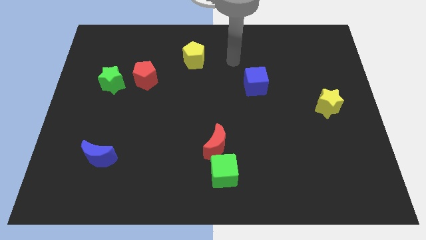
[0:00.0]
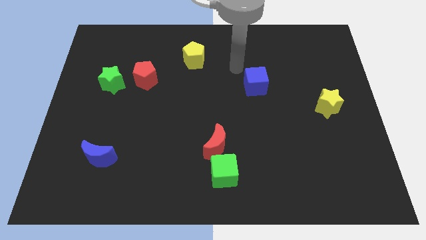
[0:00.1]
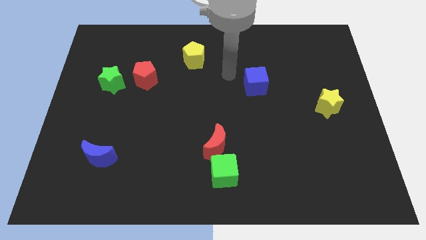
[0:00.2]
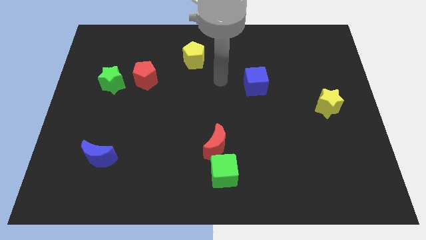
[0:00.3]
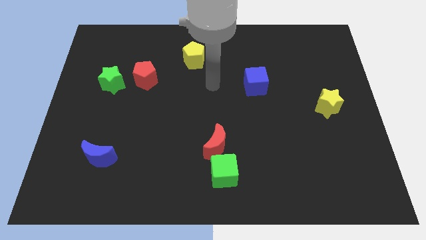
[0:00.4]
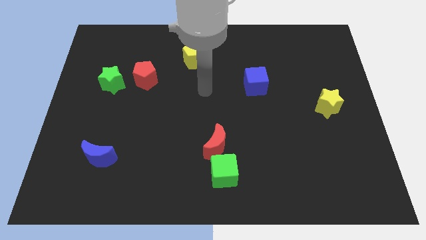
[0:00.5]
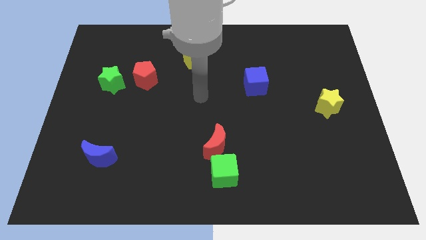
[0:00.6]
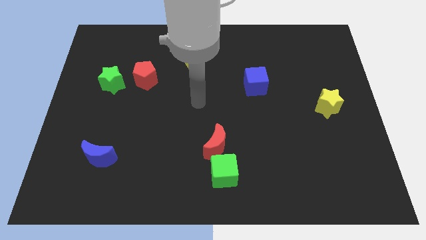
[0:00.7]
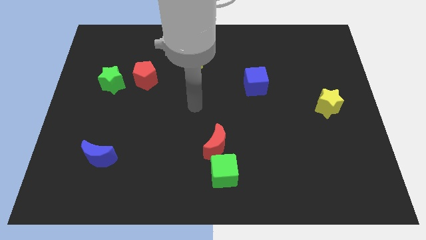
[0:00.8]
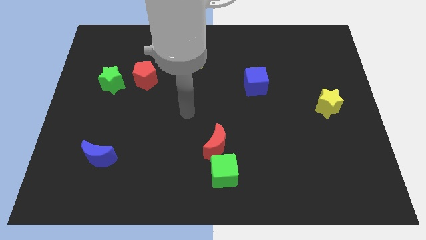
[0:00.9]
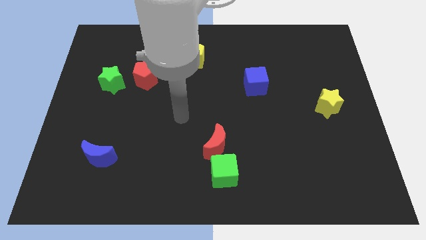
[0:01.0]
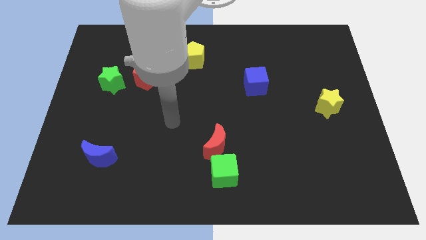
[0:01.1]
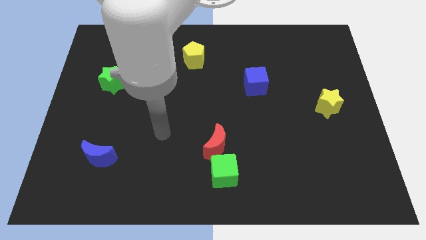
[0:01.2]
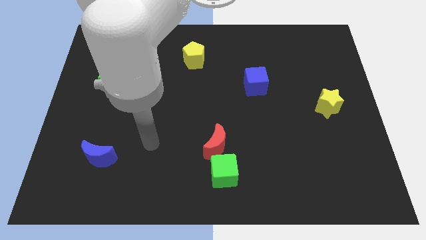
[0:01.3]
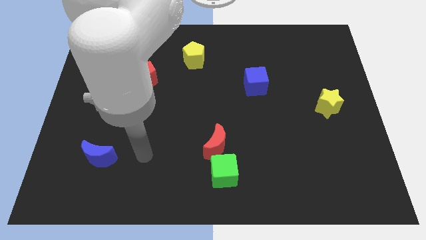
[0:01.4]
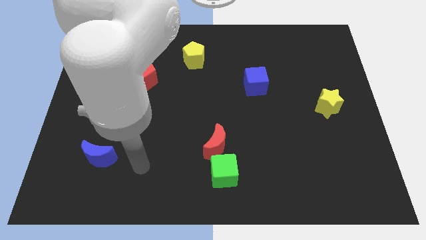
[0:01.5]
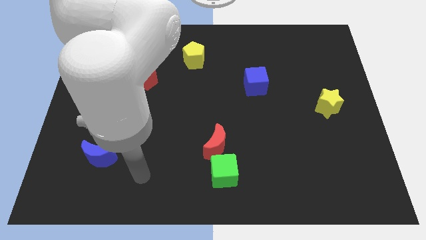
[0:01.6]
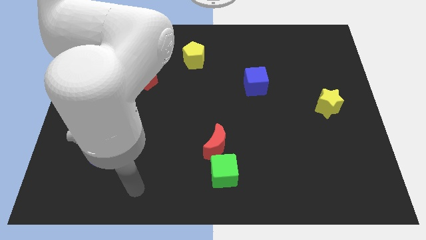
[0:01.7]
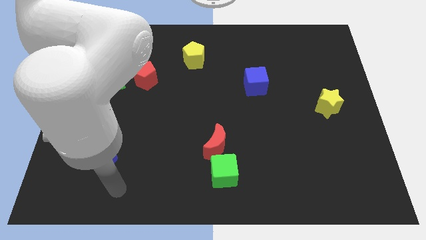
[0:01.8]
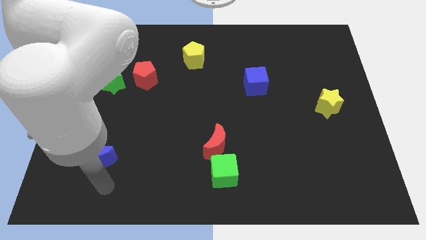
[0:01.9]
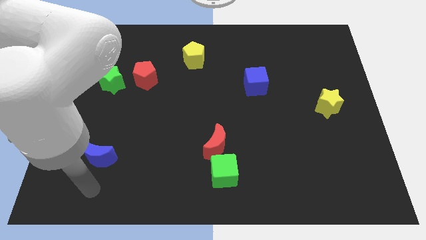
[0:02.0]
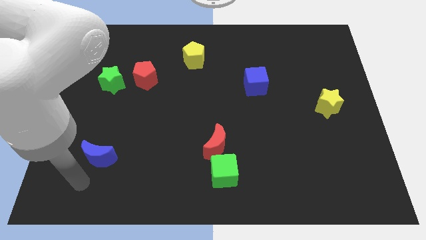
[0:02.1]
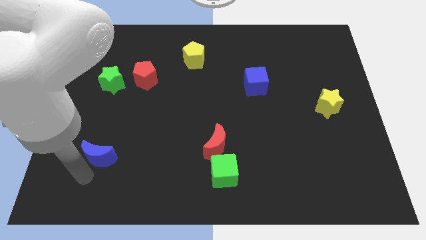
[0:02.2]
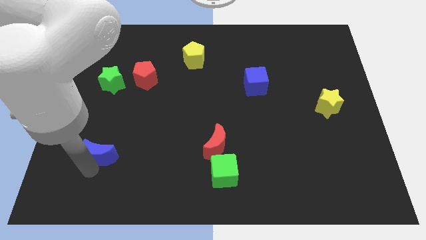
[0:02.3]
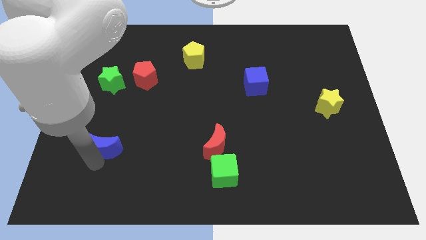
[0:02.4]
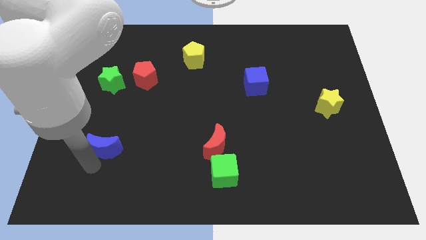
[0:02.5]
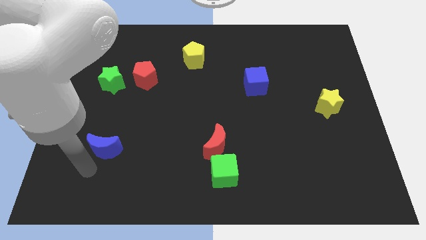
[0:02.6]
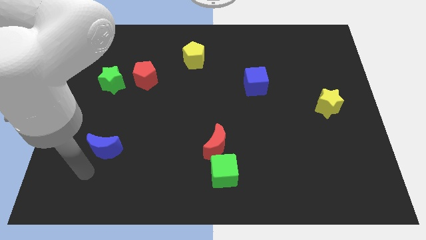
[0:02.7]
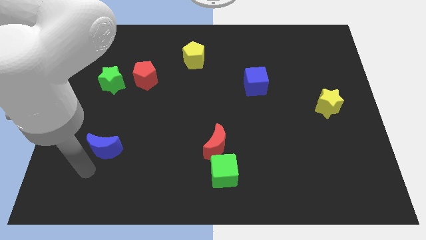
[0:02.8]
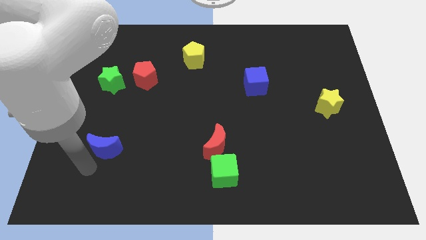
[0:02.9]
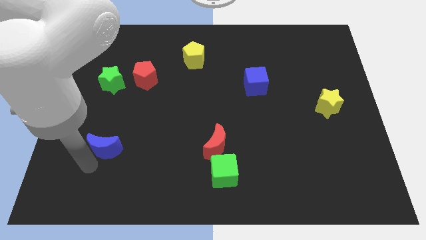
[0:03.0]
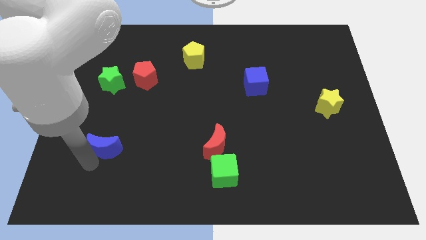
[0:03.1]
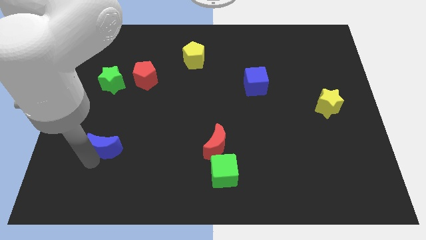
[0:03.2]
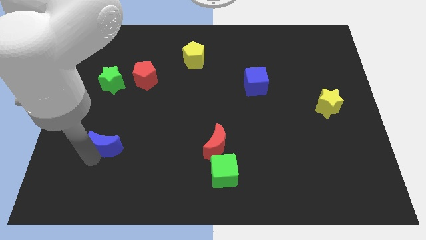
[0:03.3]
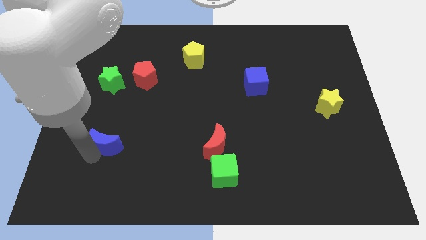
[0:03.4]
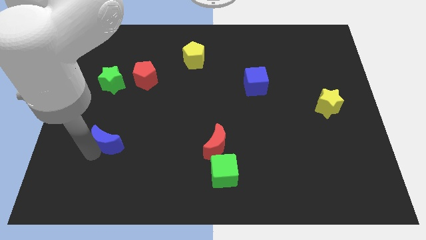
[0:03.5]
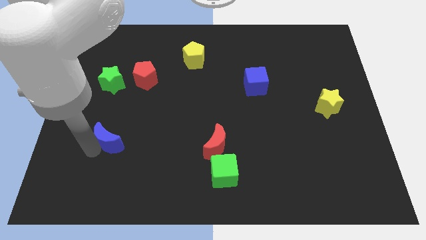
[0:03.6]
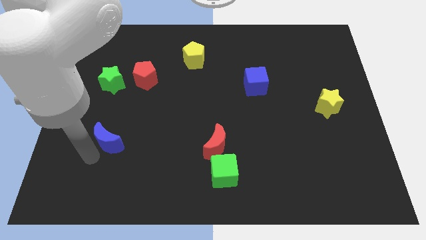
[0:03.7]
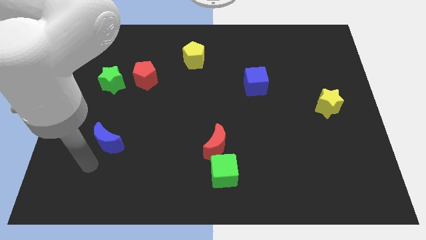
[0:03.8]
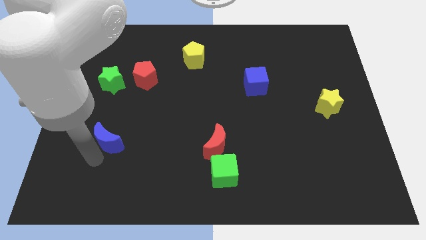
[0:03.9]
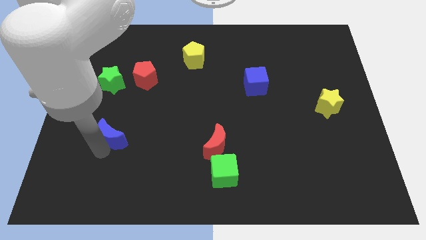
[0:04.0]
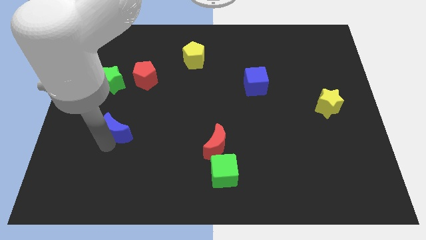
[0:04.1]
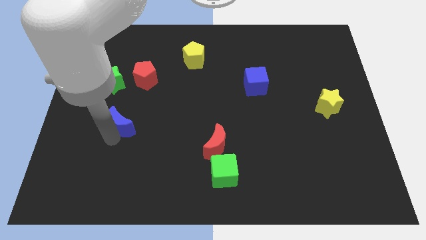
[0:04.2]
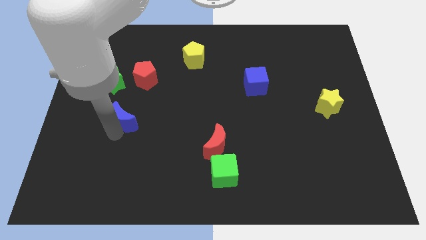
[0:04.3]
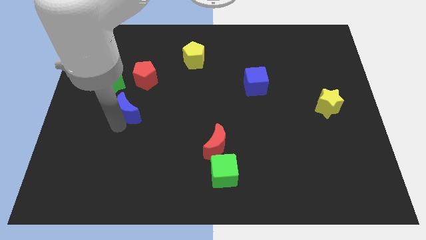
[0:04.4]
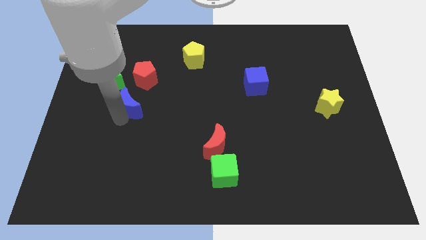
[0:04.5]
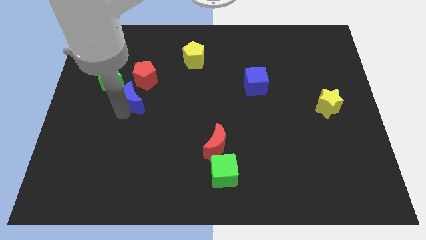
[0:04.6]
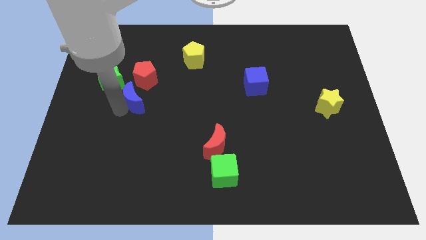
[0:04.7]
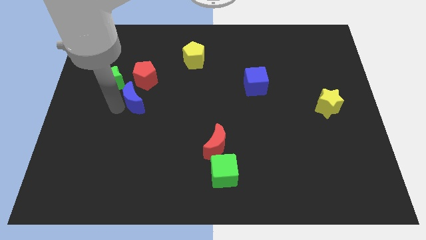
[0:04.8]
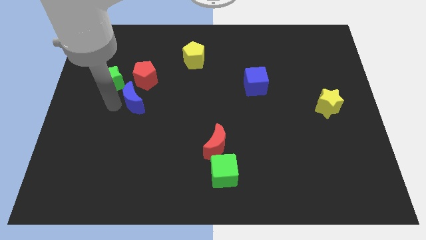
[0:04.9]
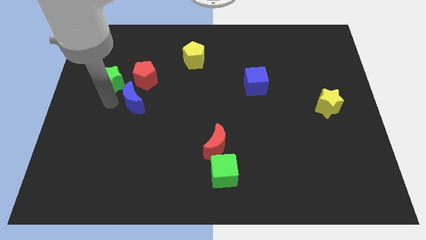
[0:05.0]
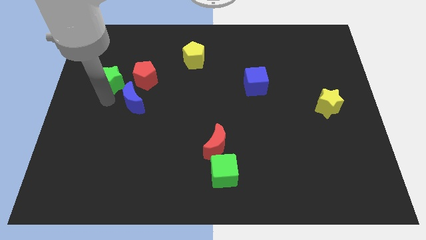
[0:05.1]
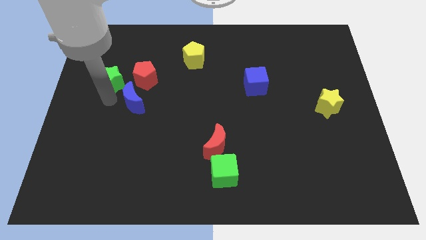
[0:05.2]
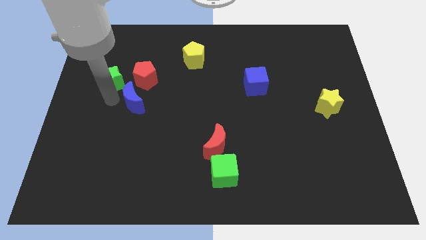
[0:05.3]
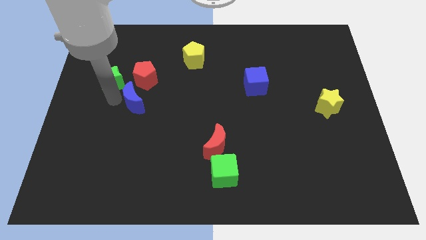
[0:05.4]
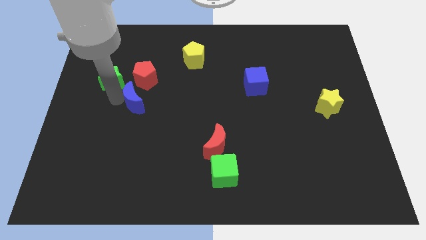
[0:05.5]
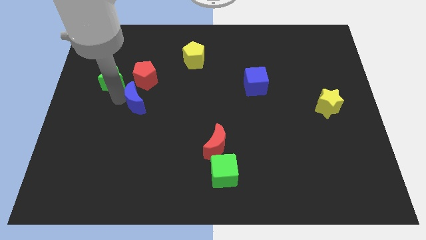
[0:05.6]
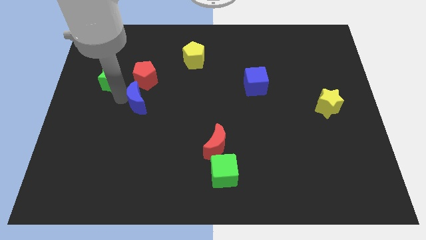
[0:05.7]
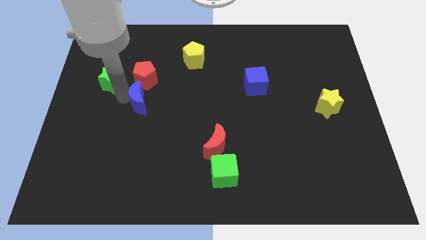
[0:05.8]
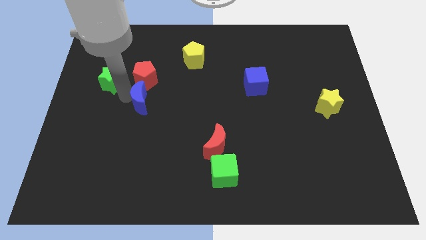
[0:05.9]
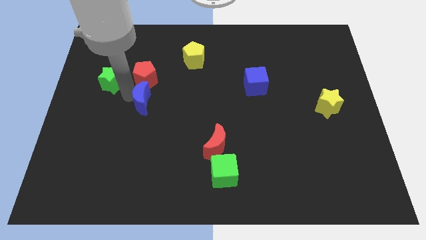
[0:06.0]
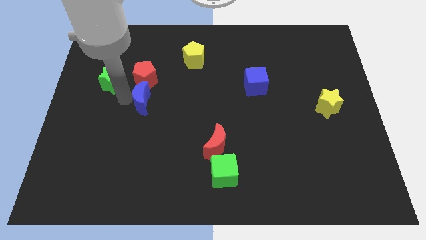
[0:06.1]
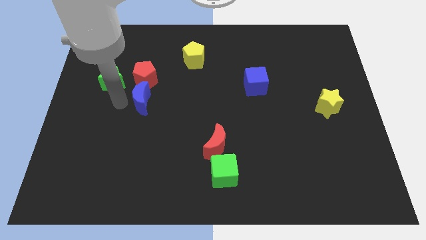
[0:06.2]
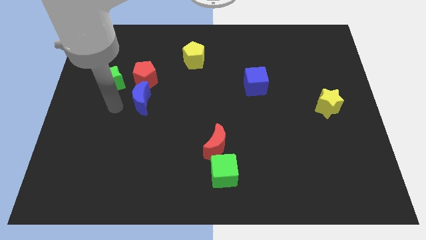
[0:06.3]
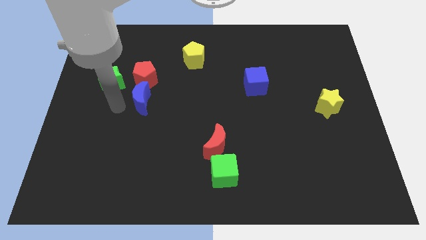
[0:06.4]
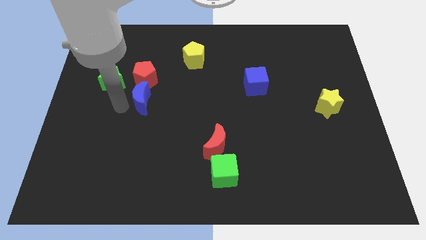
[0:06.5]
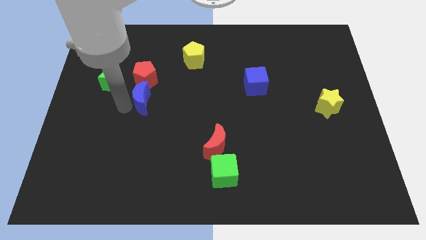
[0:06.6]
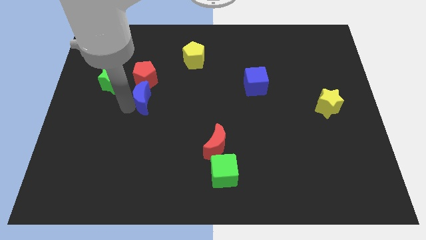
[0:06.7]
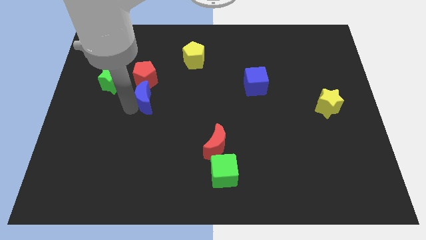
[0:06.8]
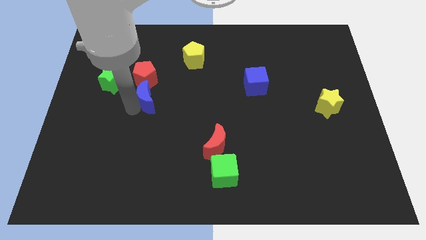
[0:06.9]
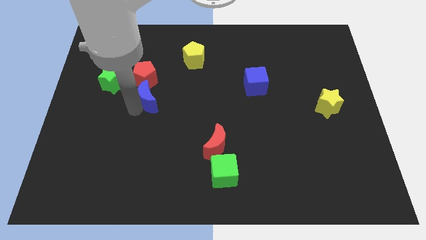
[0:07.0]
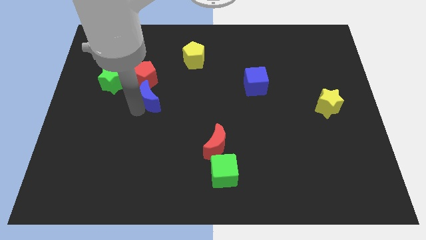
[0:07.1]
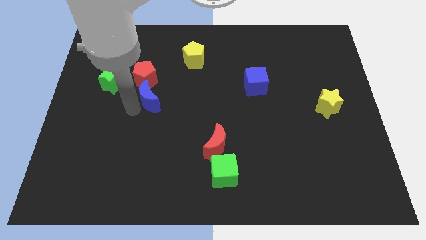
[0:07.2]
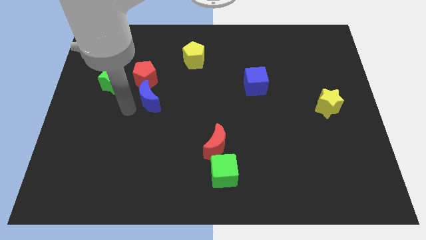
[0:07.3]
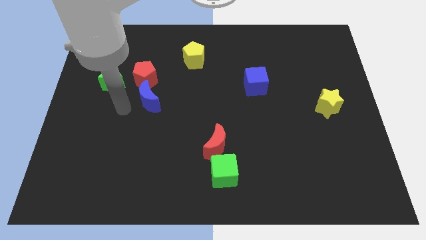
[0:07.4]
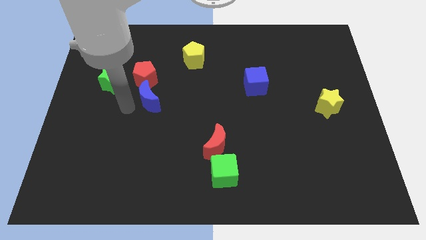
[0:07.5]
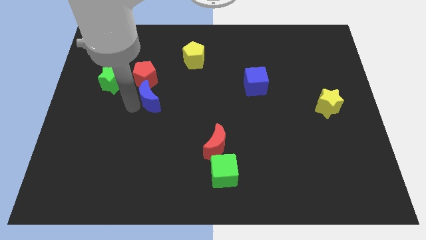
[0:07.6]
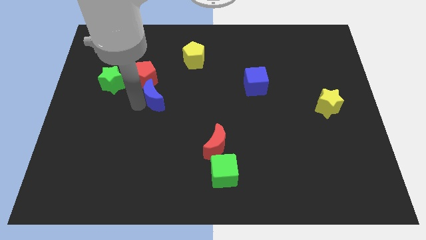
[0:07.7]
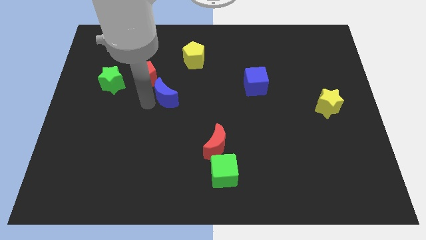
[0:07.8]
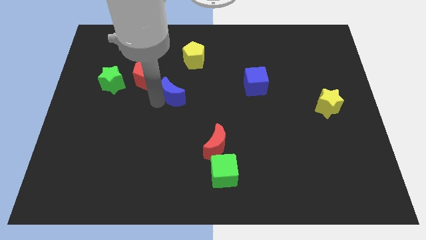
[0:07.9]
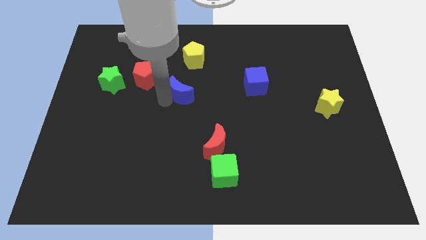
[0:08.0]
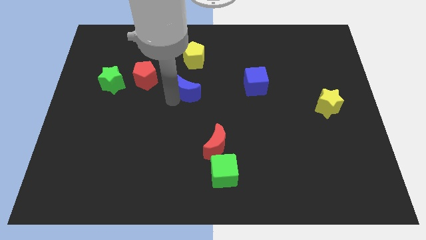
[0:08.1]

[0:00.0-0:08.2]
slide the blue moon right of the red pentagon
